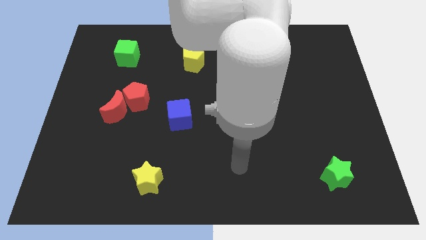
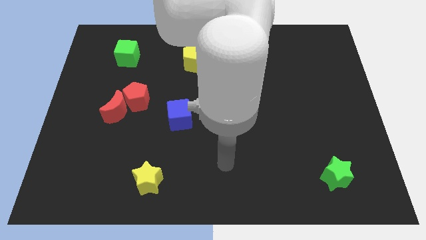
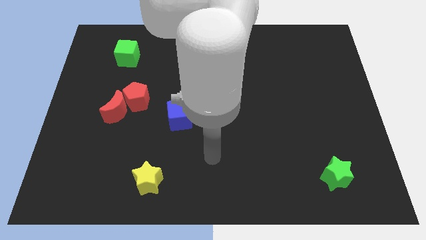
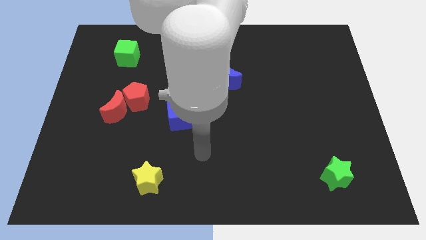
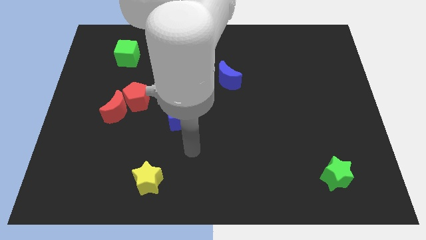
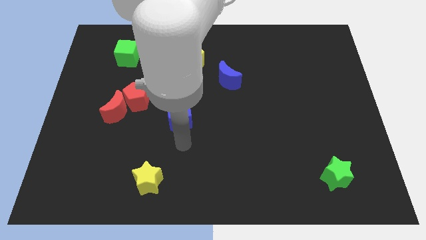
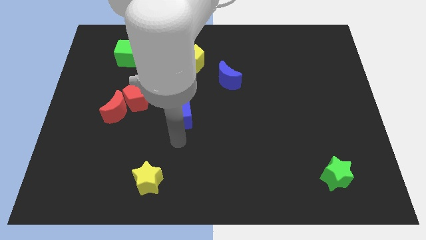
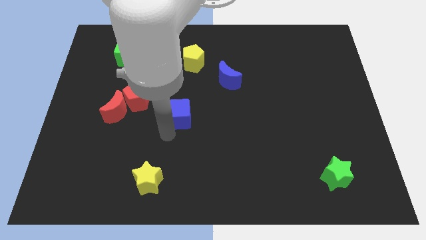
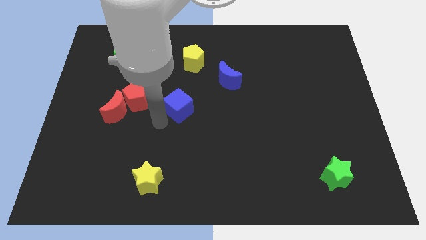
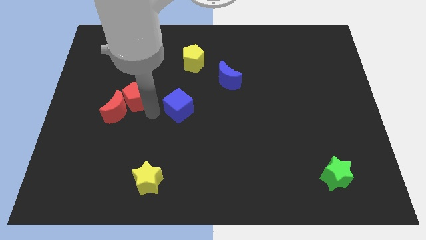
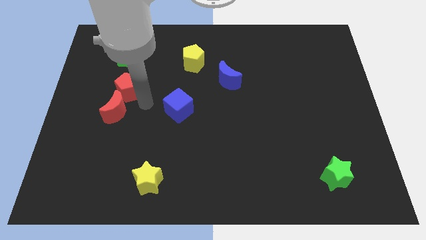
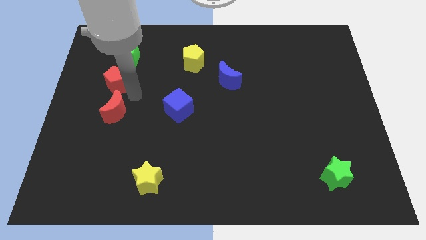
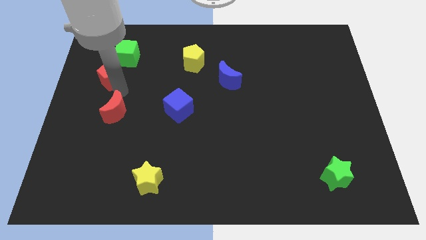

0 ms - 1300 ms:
pull the red moon apart from the red pentagon

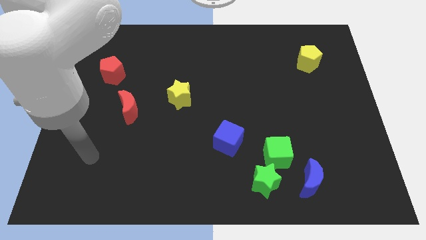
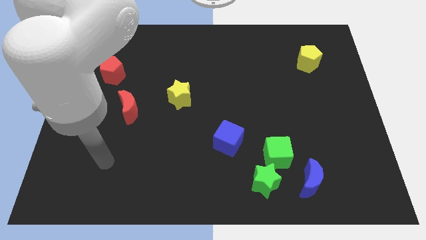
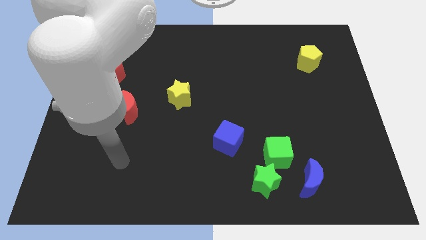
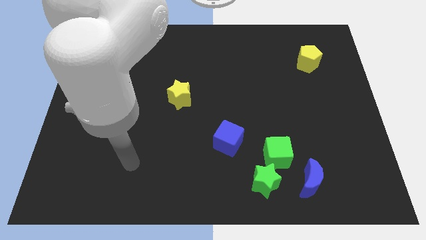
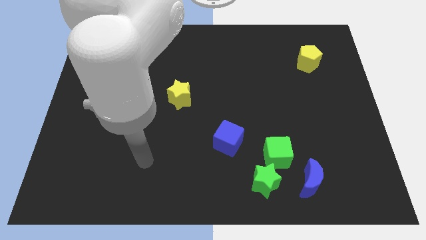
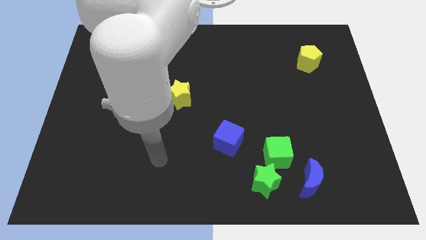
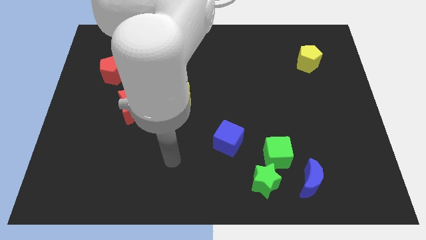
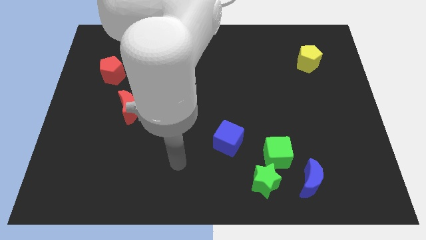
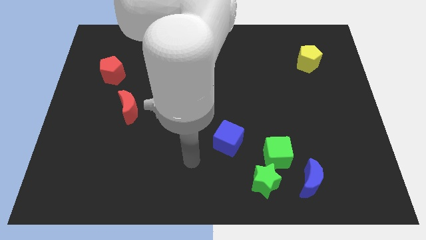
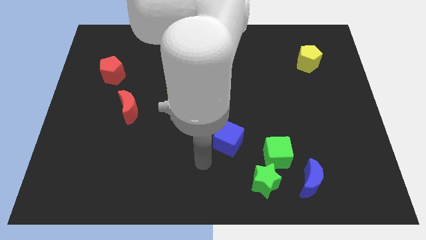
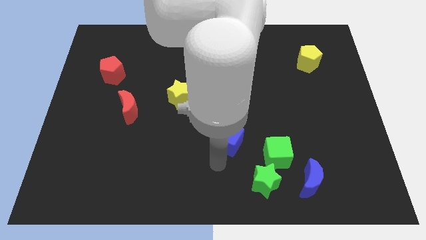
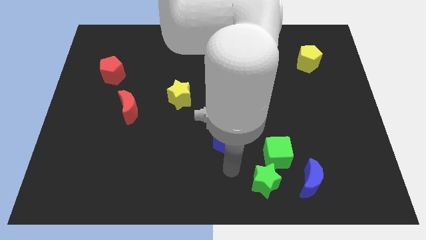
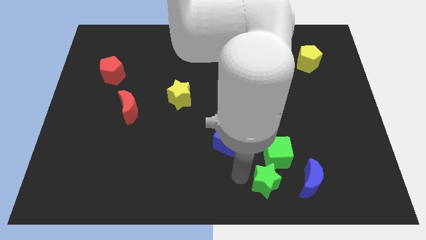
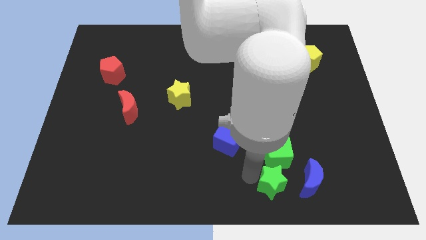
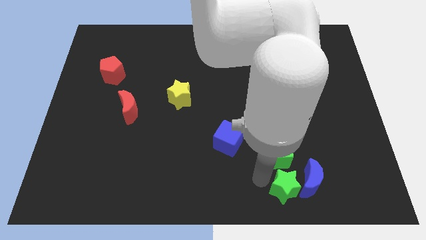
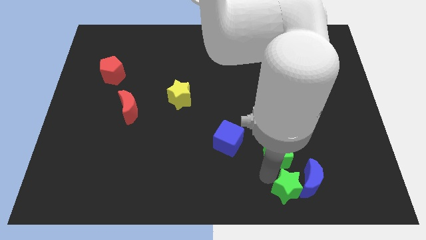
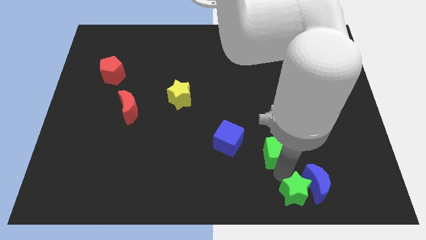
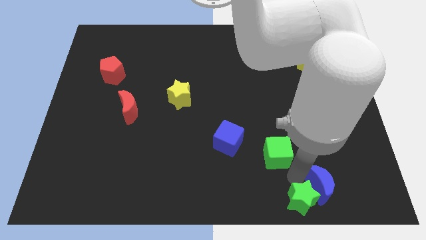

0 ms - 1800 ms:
separate the green cube from the green star and blue moon

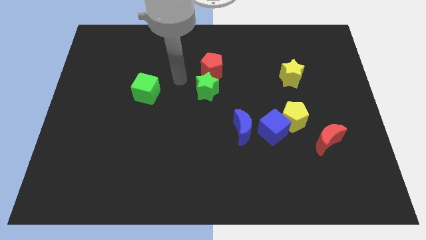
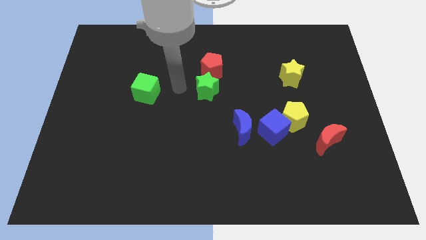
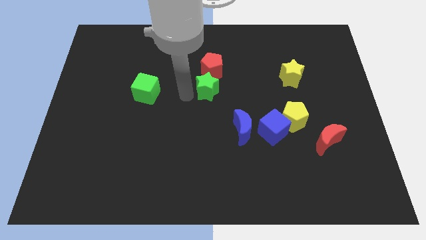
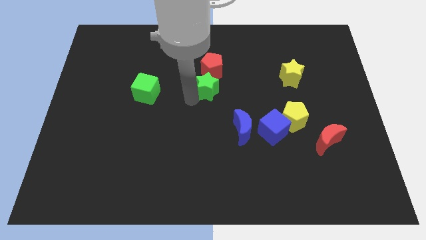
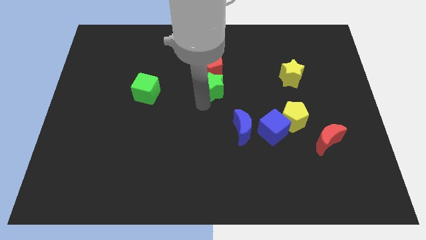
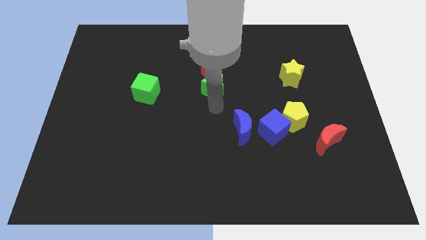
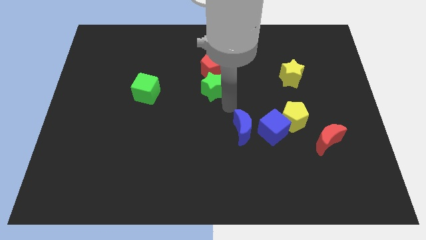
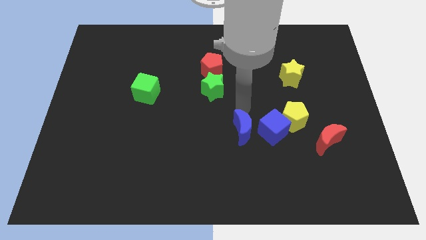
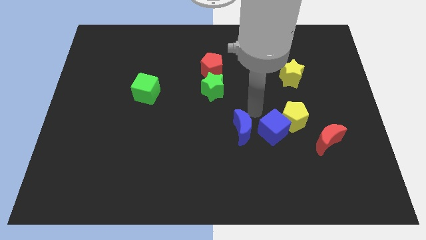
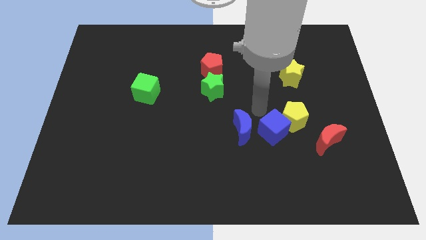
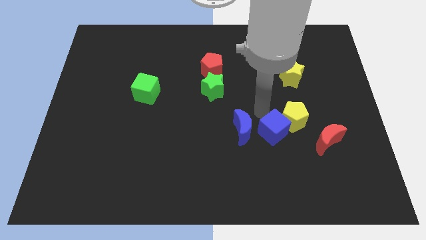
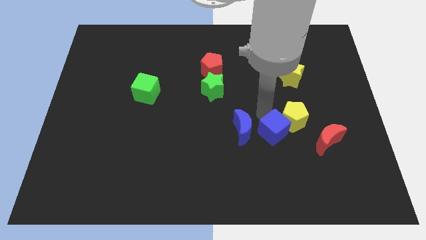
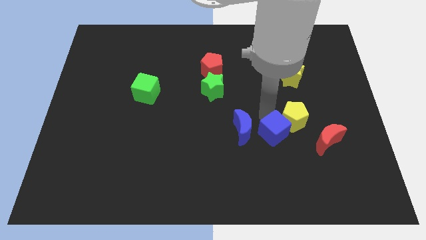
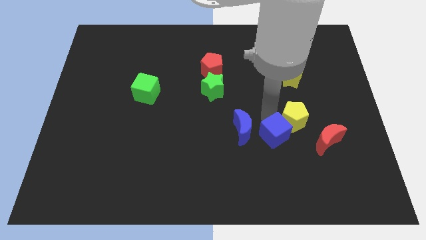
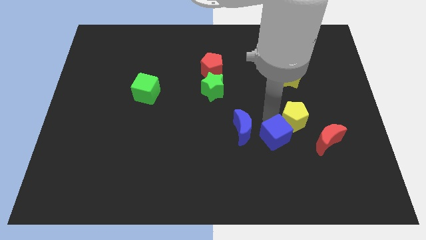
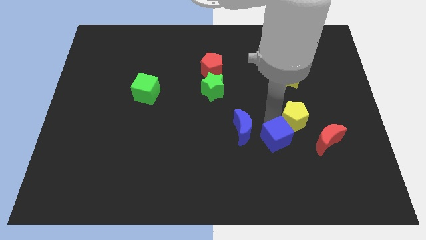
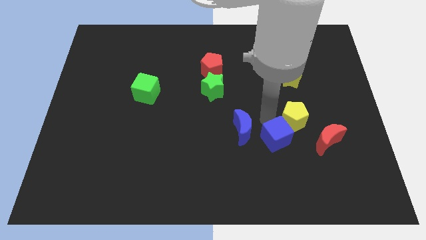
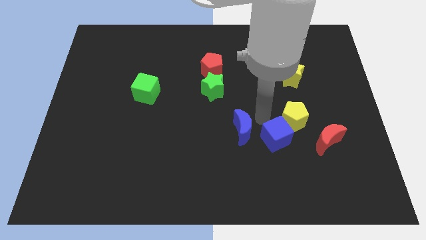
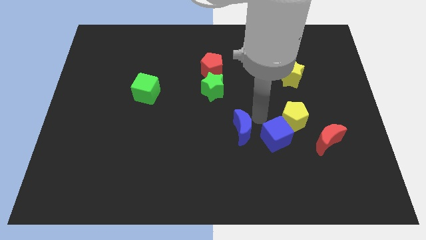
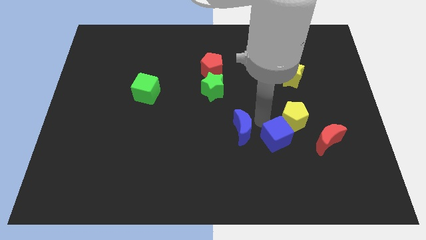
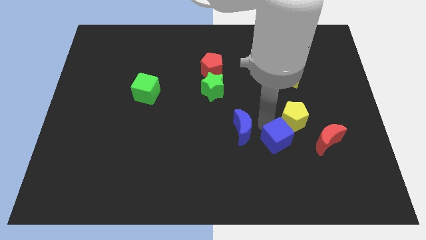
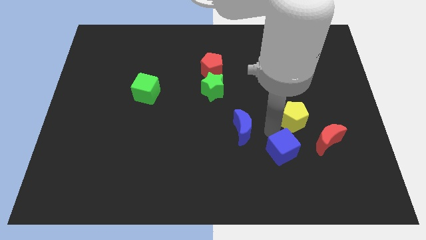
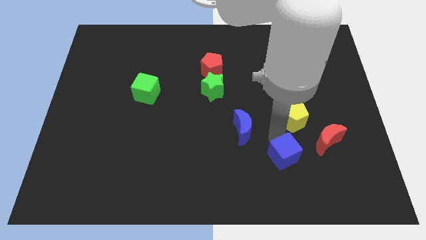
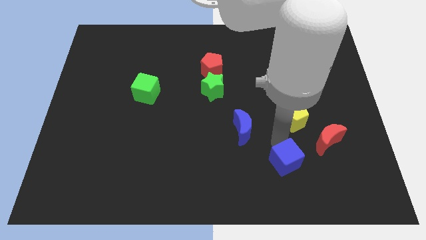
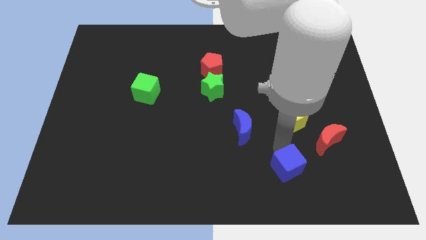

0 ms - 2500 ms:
move the blue cube away from the yellow pentagon and blue moon

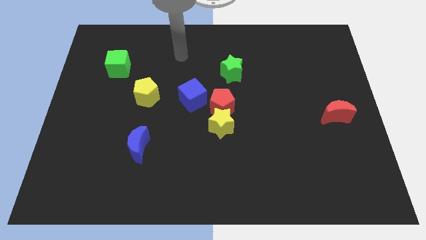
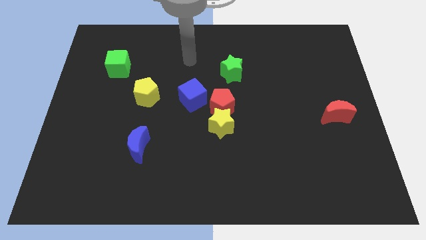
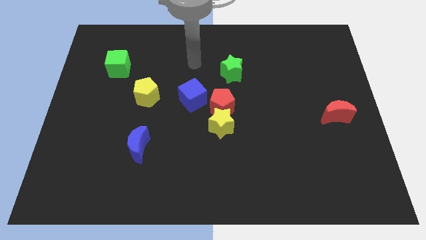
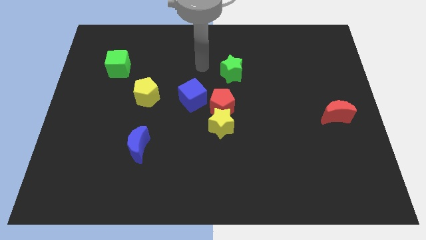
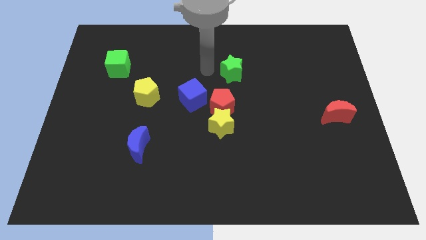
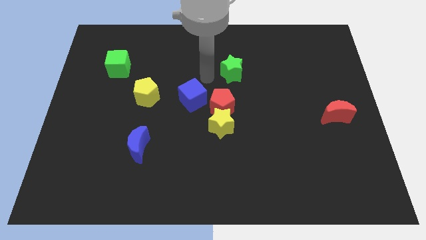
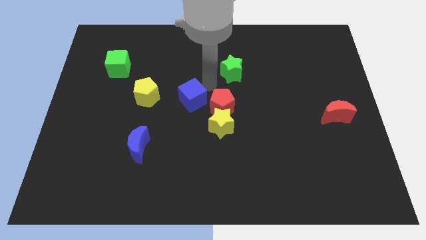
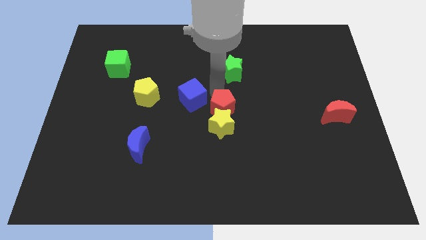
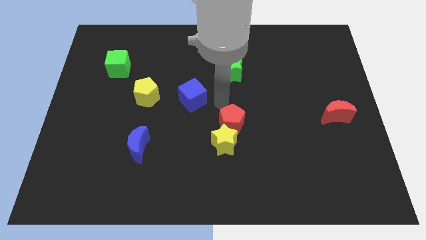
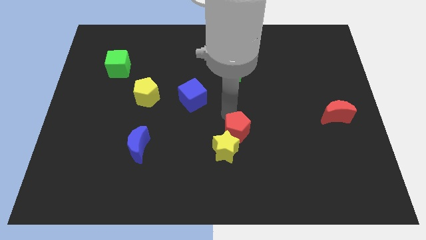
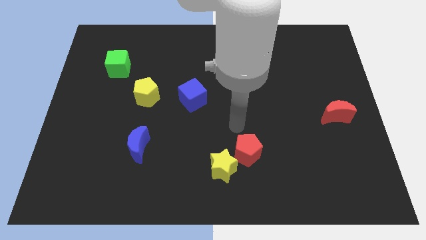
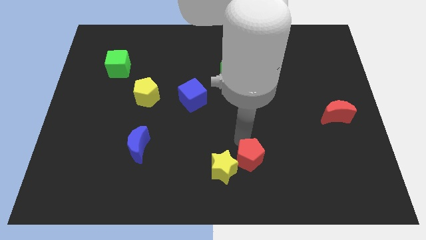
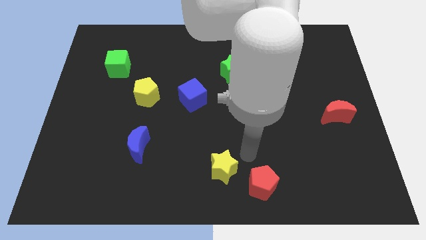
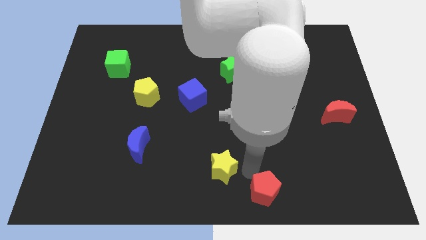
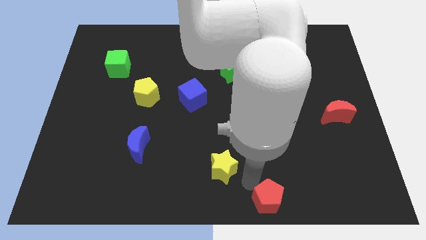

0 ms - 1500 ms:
separate the yellow star from the red pentagon

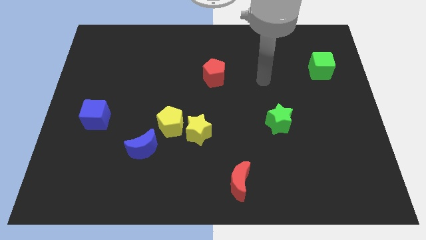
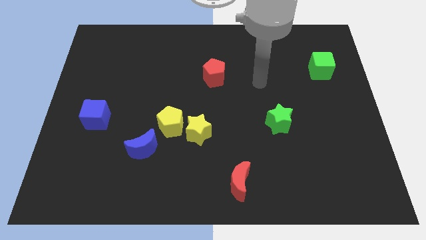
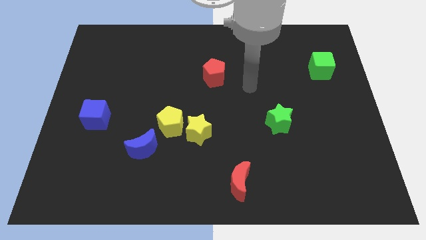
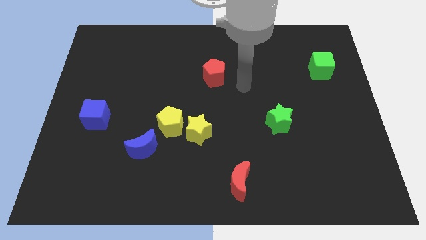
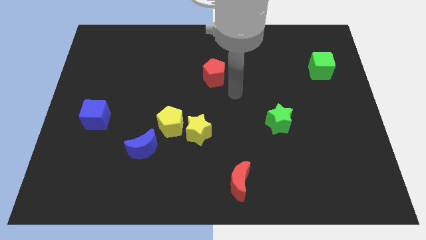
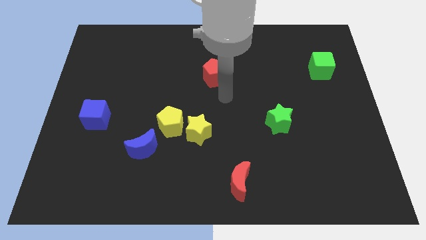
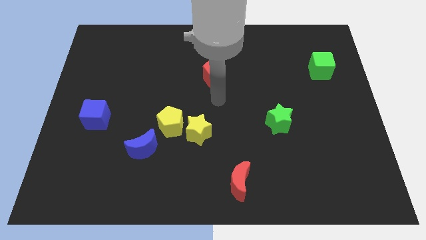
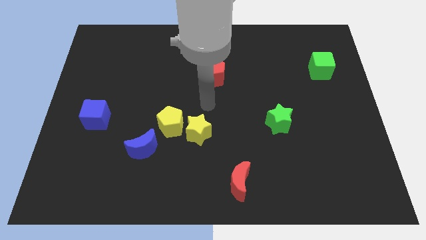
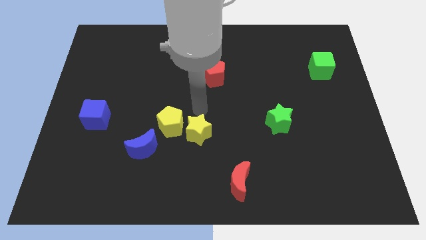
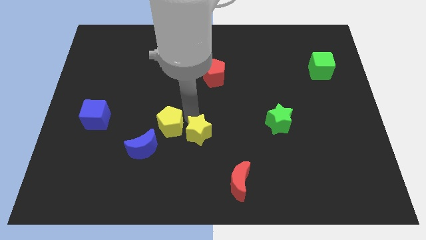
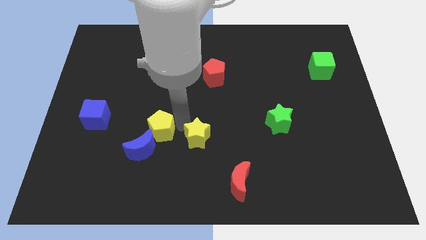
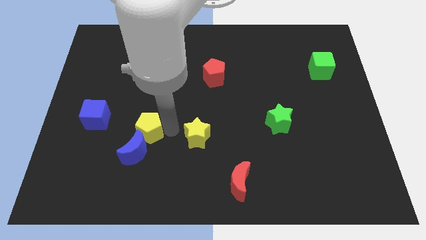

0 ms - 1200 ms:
separate the yellow star from the yellow pentagon

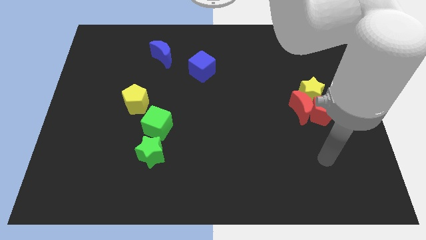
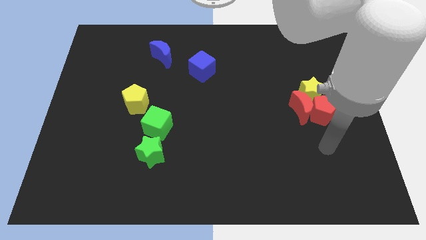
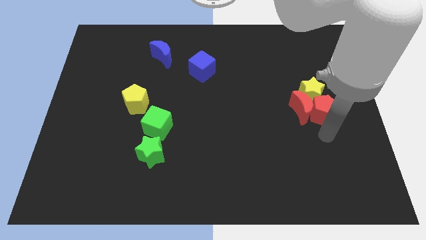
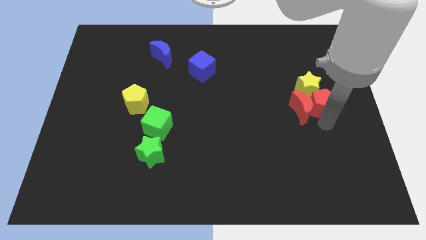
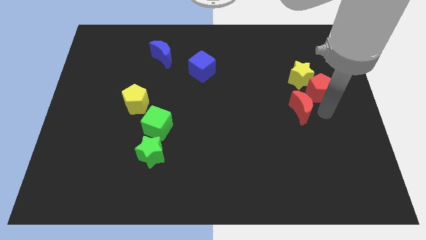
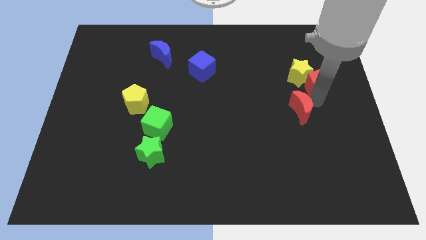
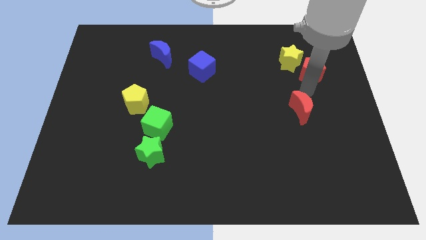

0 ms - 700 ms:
move the red moon away from the red pentagon and yellow star
